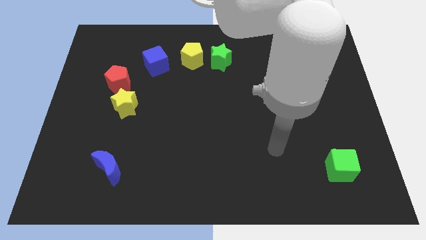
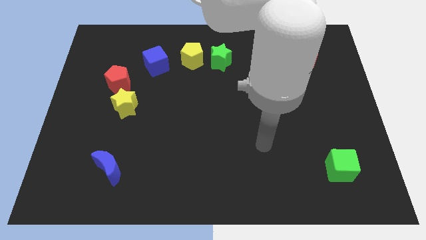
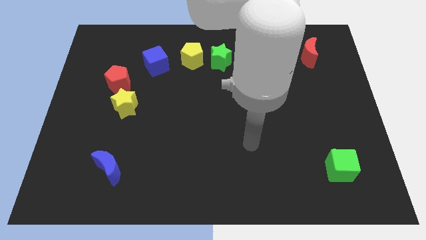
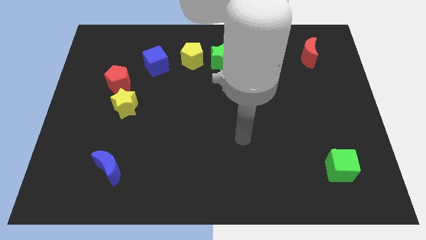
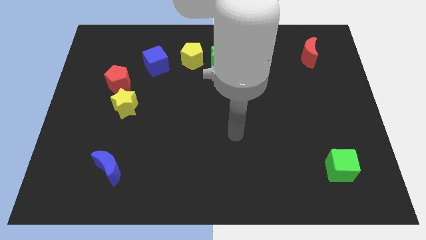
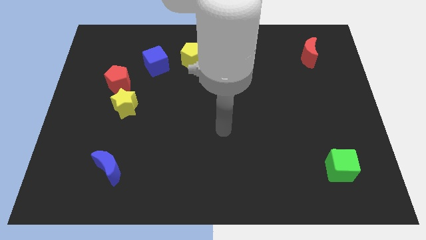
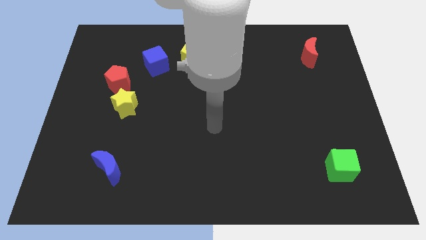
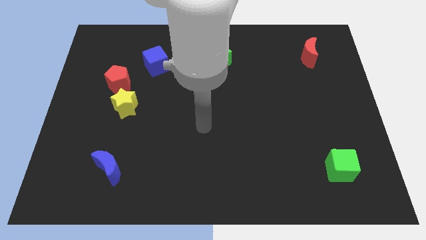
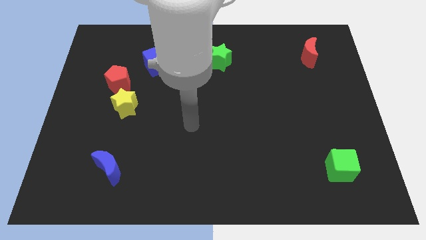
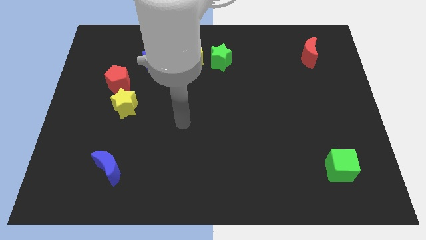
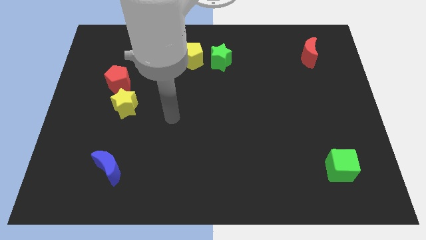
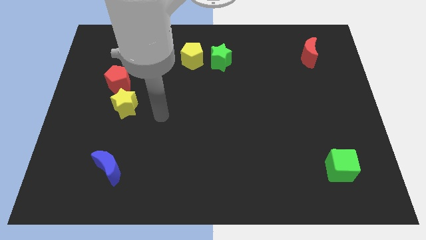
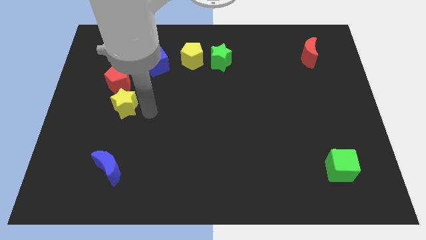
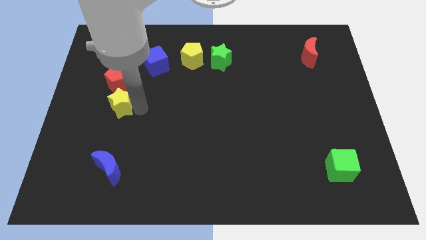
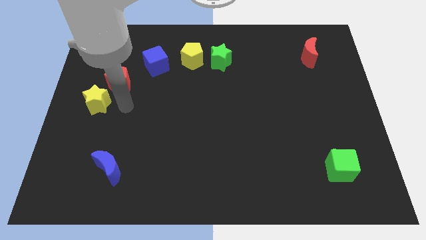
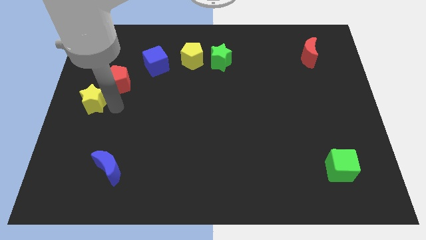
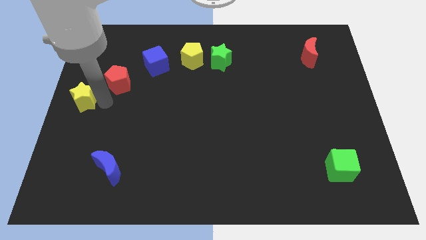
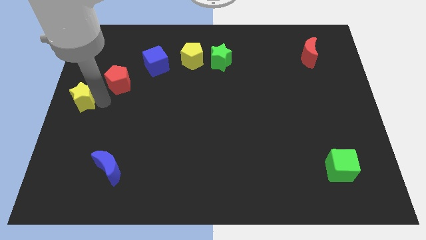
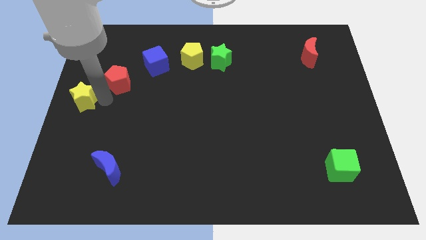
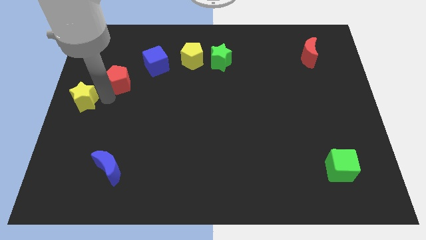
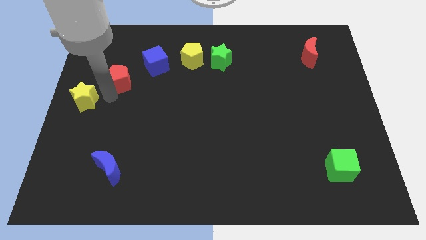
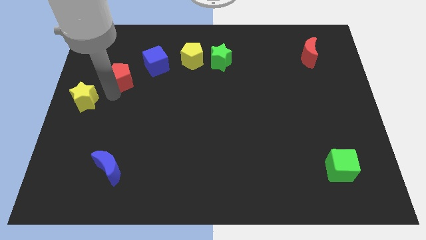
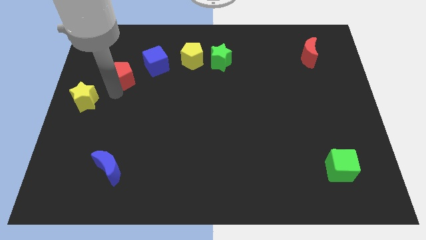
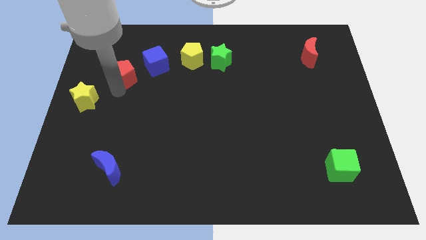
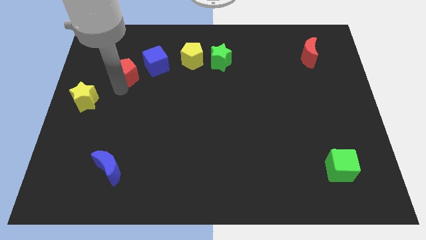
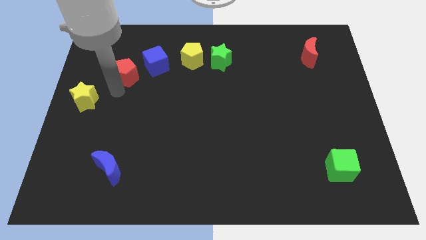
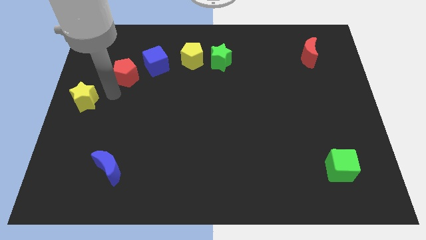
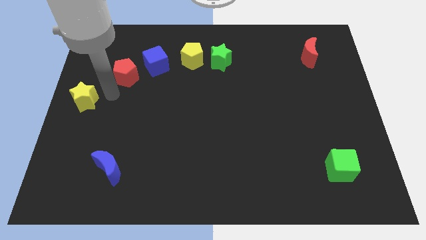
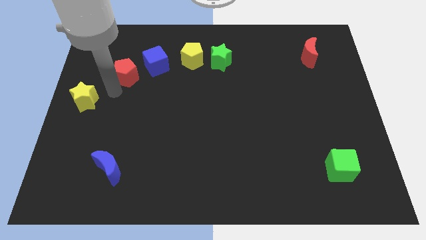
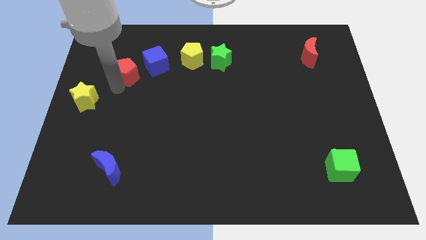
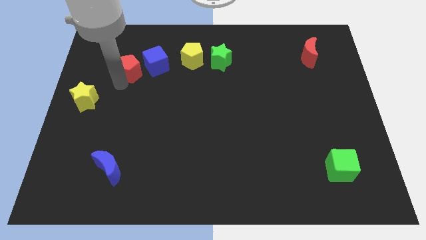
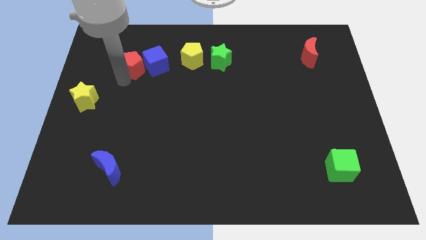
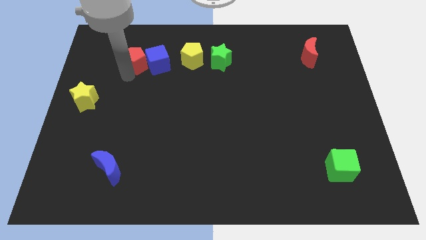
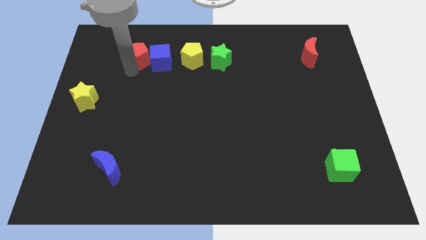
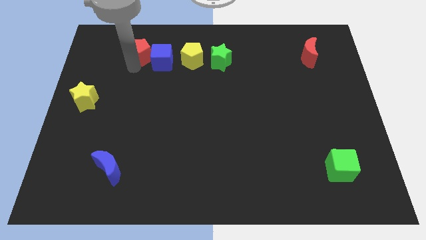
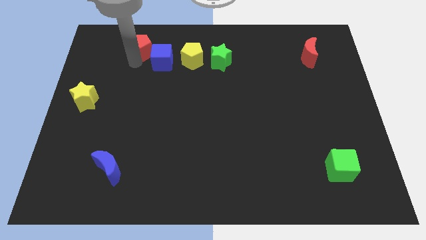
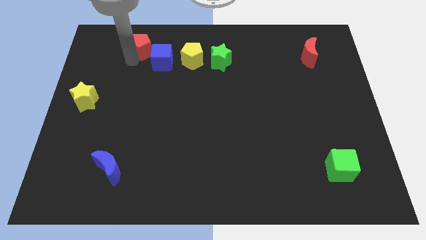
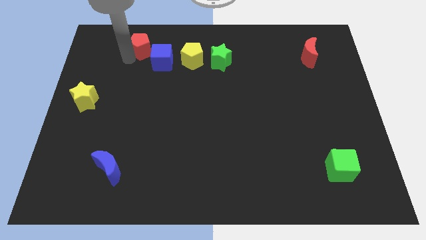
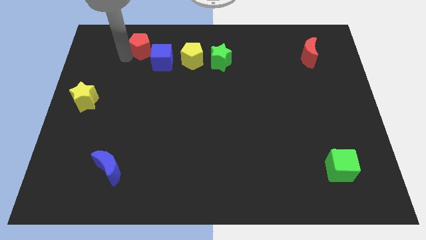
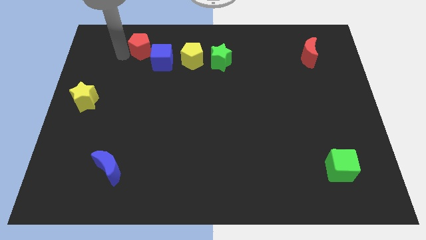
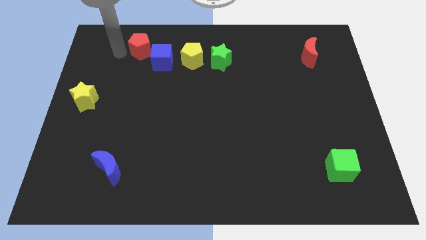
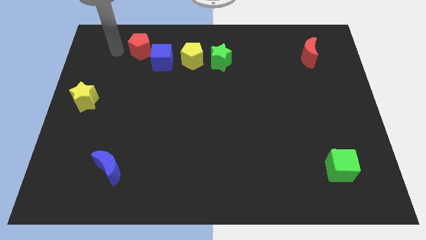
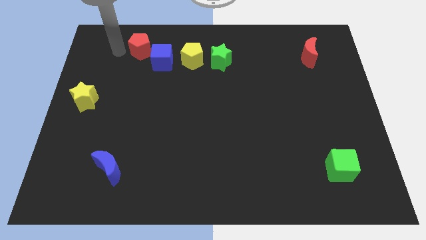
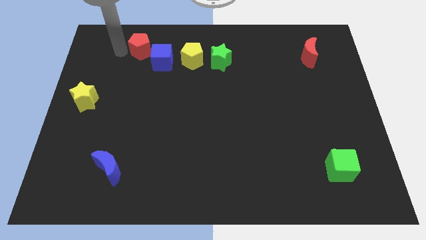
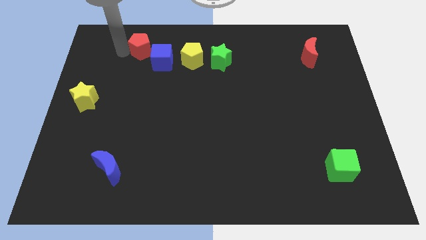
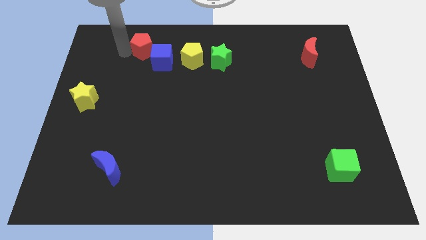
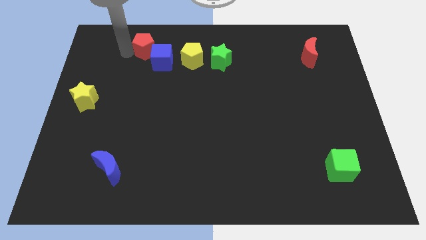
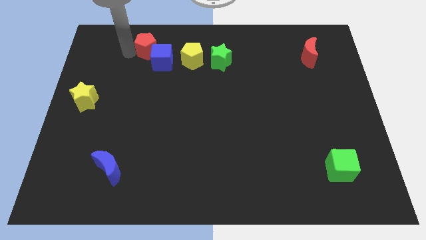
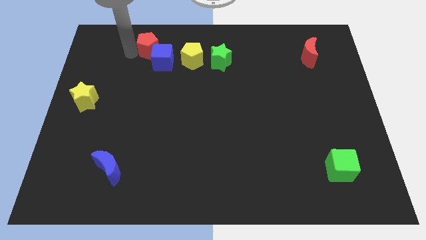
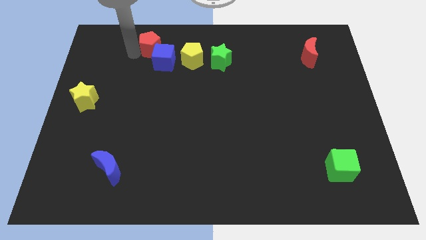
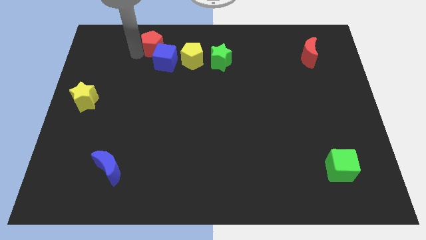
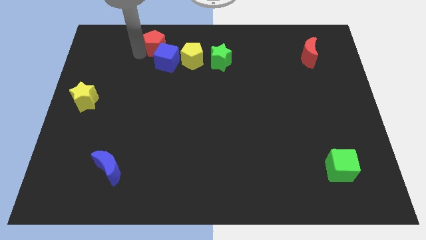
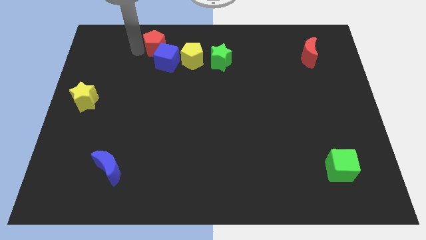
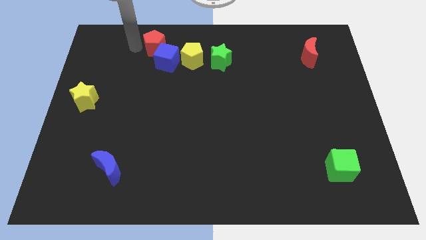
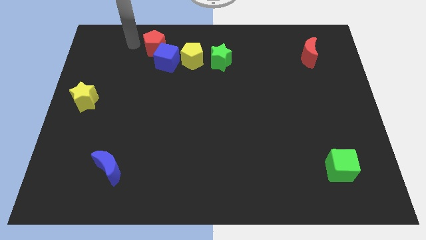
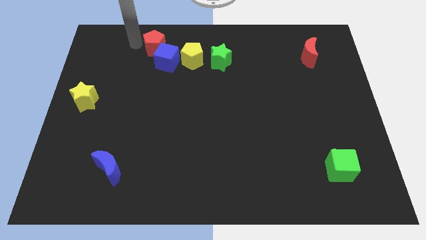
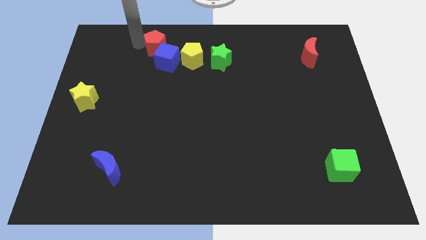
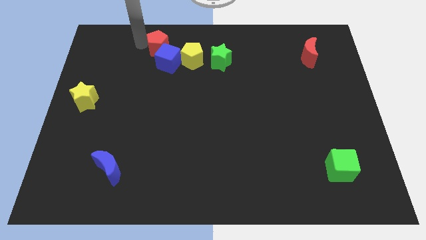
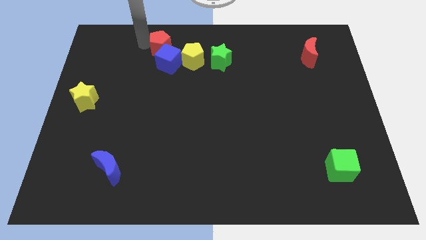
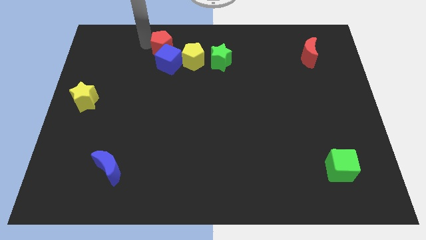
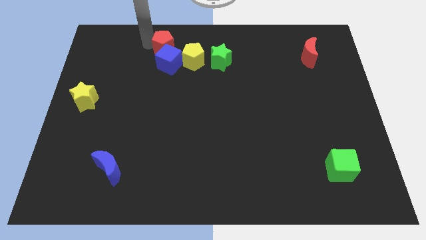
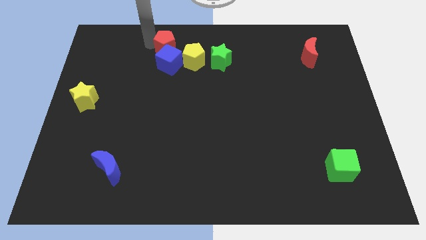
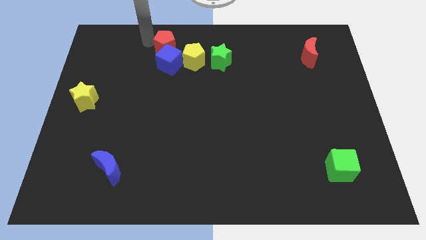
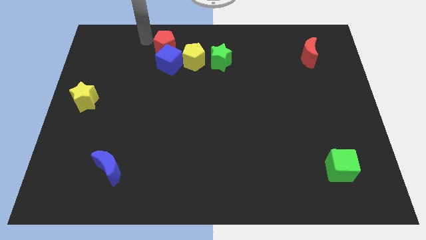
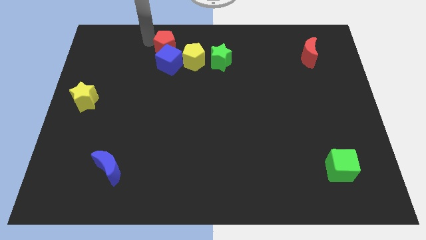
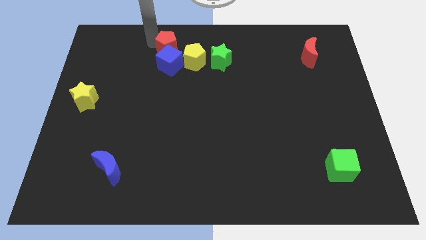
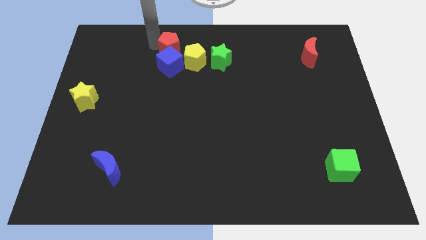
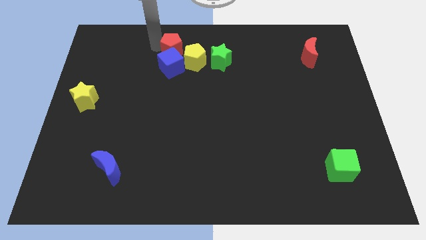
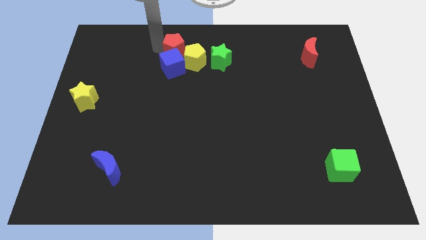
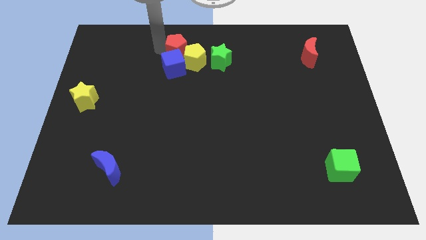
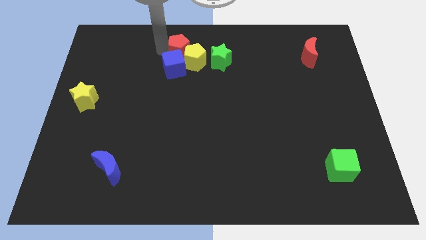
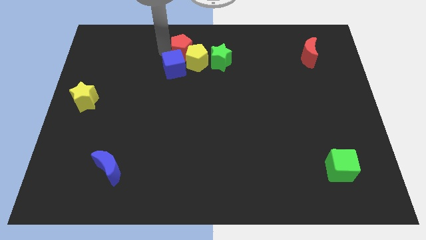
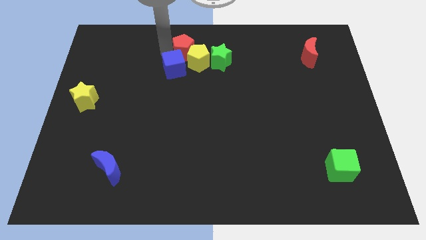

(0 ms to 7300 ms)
slide the red pentagon to the top side
